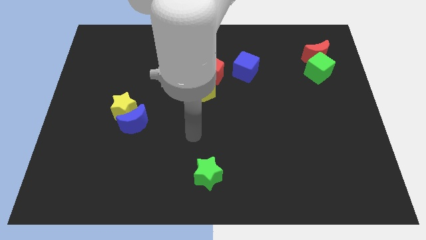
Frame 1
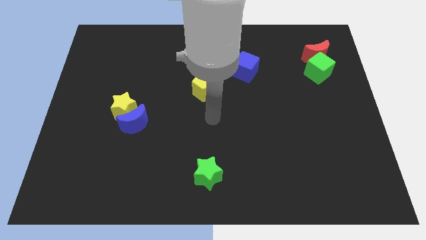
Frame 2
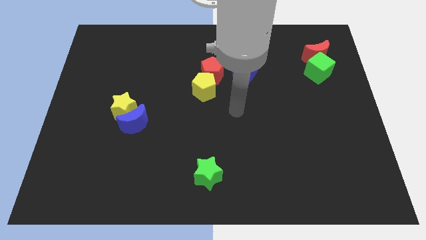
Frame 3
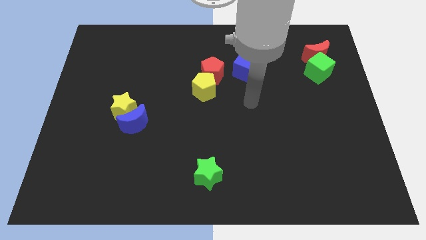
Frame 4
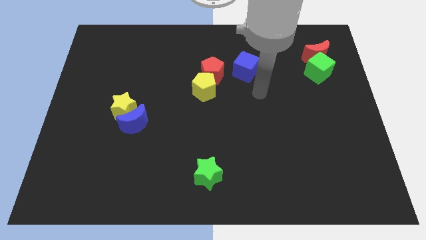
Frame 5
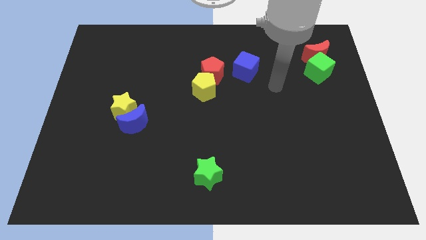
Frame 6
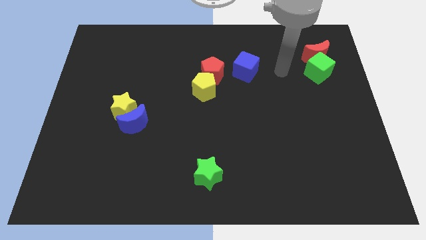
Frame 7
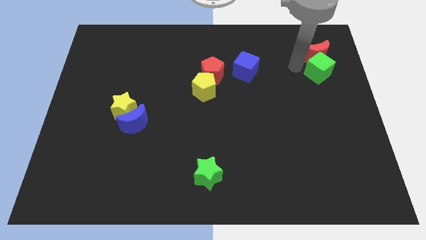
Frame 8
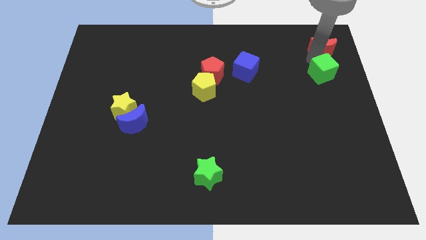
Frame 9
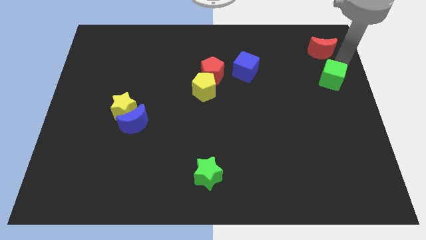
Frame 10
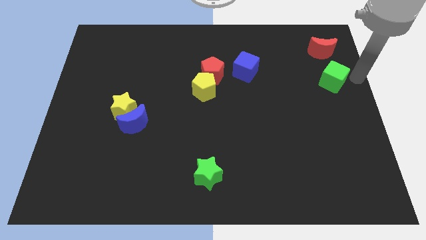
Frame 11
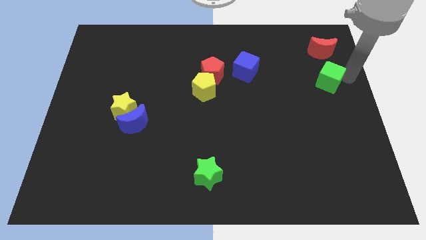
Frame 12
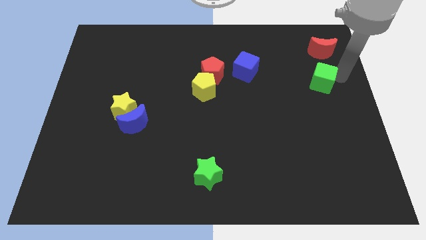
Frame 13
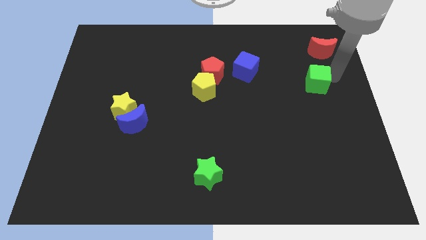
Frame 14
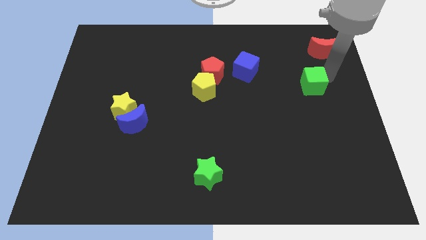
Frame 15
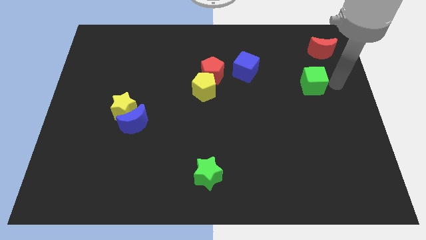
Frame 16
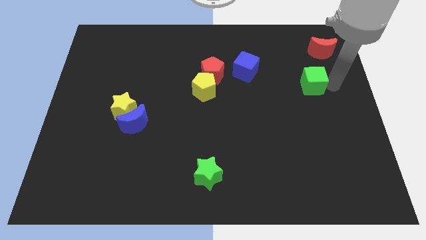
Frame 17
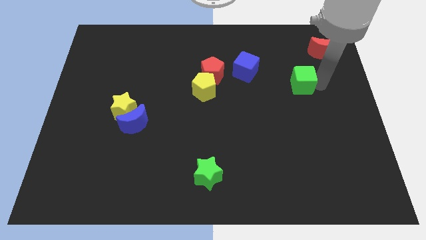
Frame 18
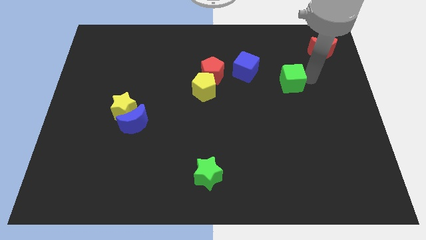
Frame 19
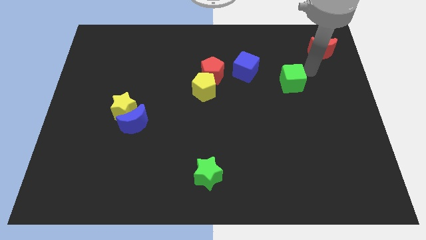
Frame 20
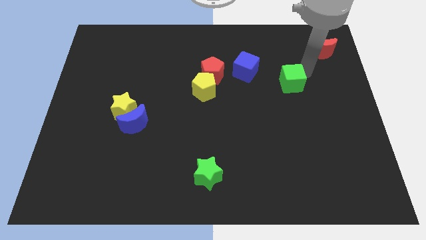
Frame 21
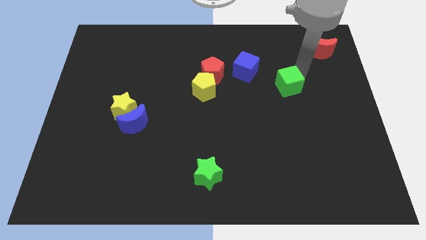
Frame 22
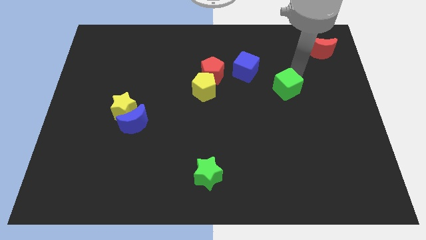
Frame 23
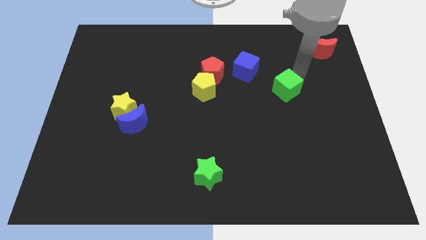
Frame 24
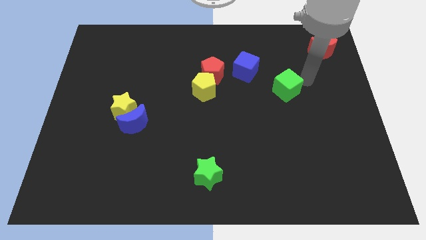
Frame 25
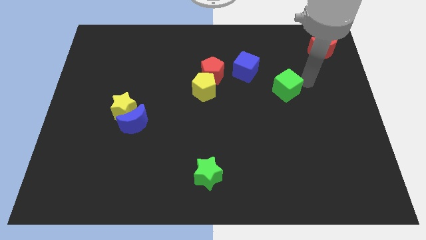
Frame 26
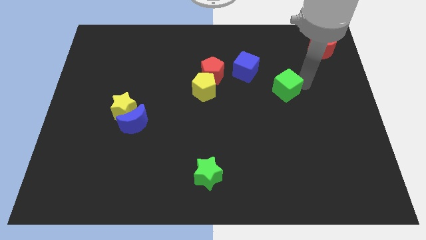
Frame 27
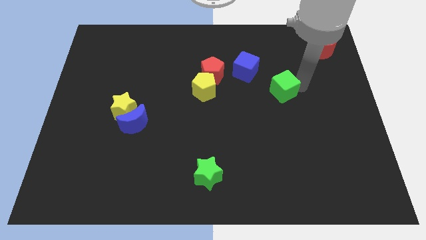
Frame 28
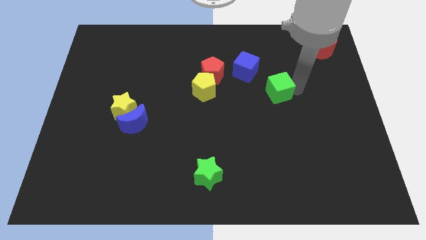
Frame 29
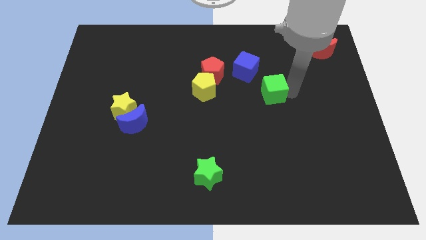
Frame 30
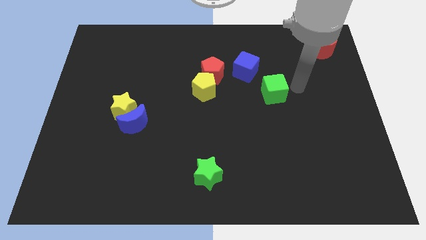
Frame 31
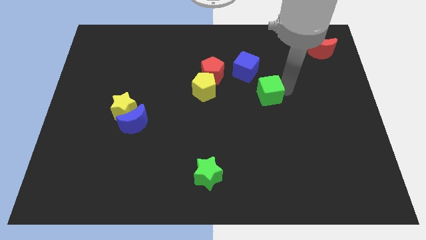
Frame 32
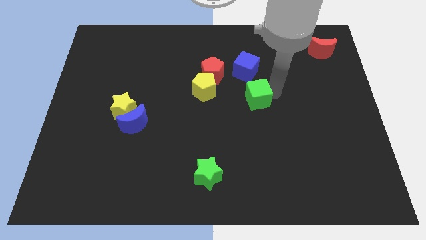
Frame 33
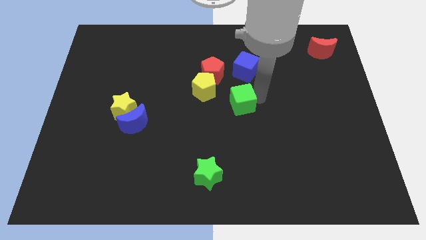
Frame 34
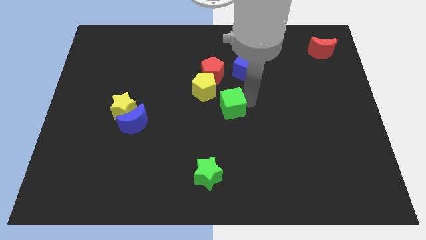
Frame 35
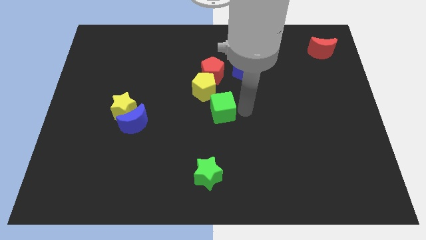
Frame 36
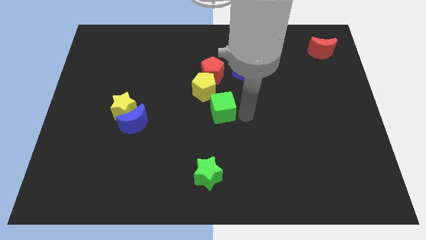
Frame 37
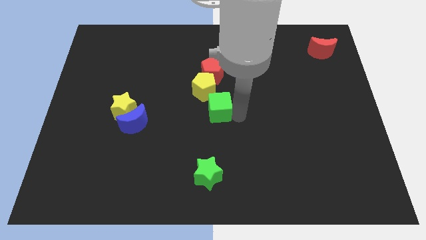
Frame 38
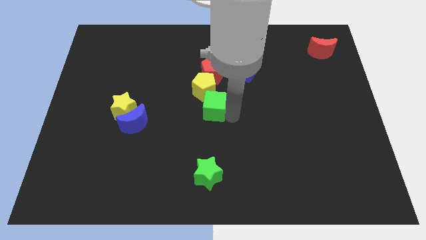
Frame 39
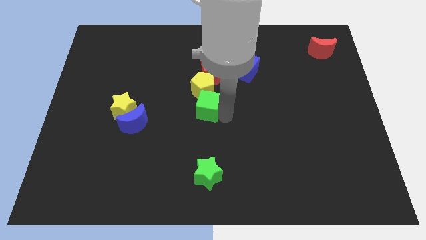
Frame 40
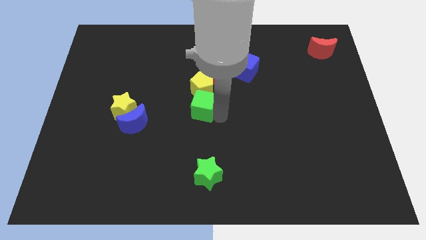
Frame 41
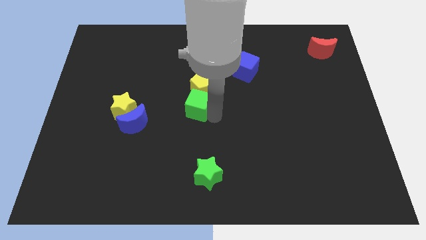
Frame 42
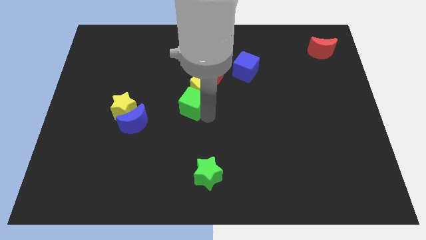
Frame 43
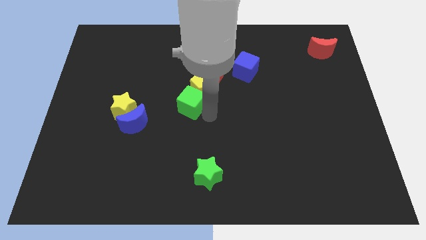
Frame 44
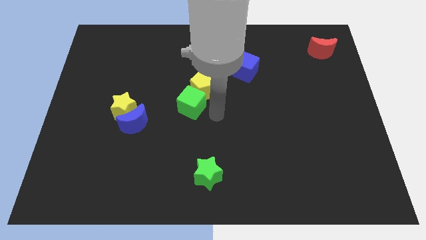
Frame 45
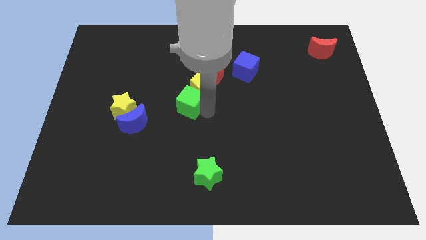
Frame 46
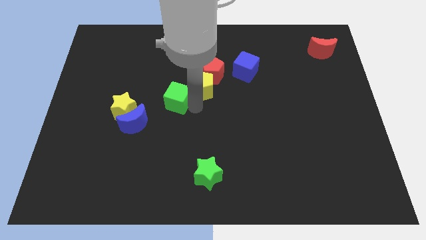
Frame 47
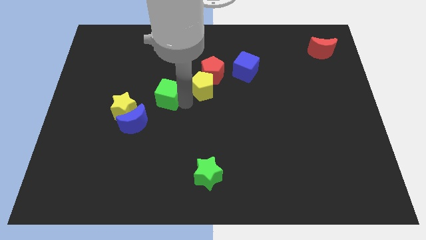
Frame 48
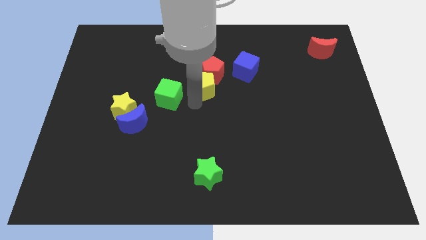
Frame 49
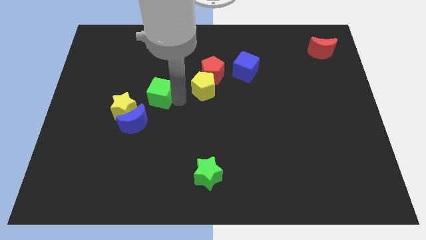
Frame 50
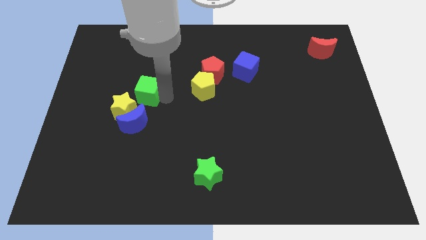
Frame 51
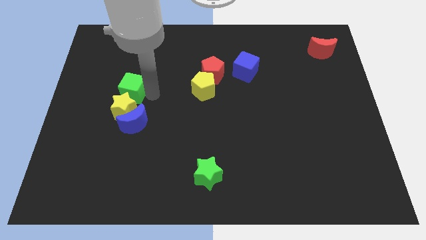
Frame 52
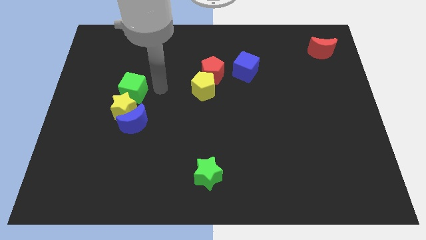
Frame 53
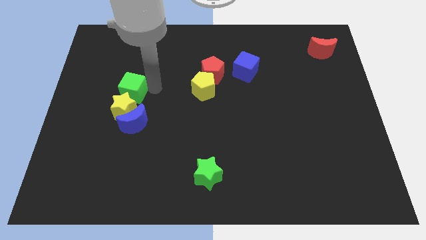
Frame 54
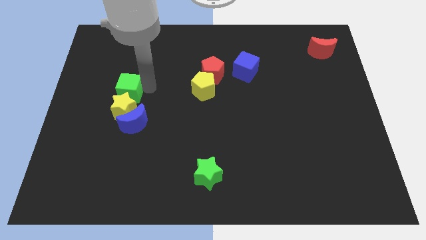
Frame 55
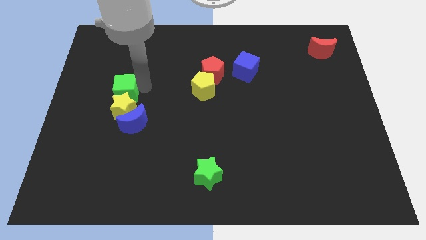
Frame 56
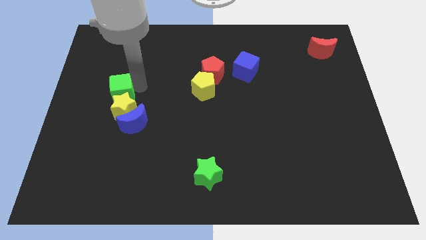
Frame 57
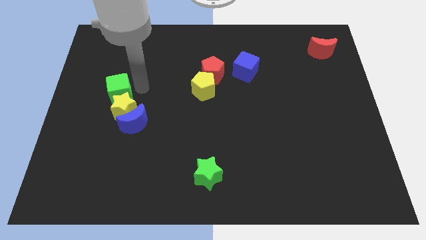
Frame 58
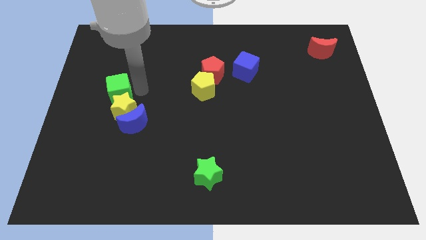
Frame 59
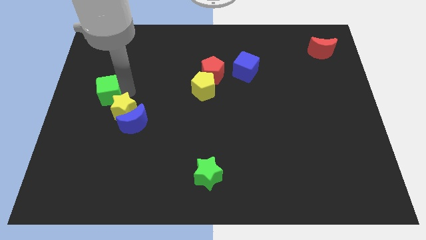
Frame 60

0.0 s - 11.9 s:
push the green cube to the left side of the board
